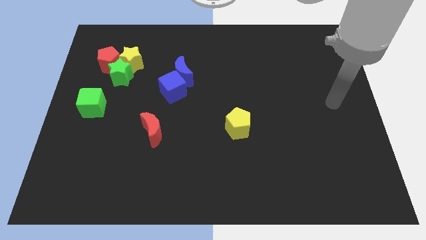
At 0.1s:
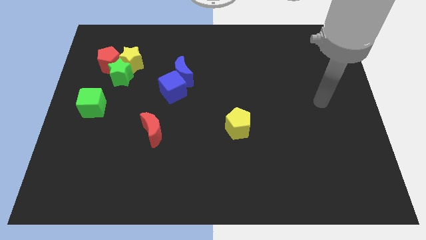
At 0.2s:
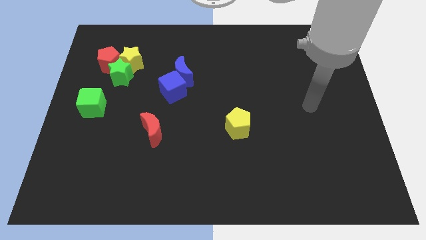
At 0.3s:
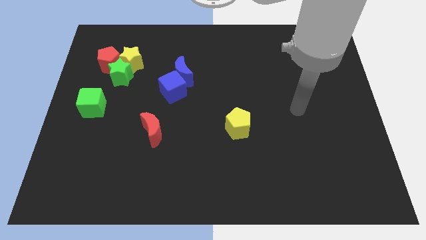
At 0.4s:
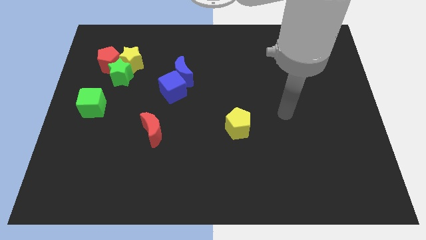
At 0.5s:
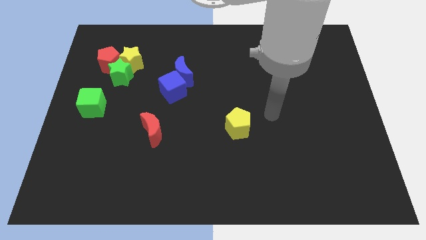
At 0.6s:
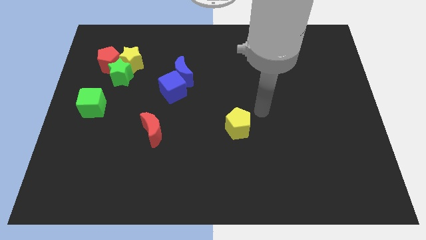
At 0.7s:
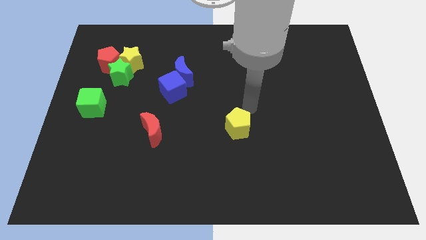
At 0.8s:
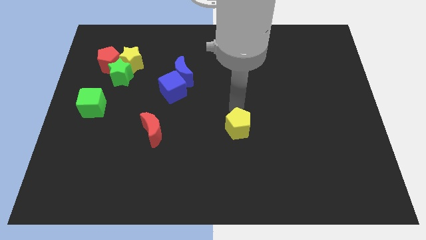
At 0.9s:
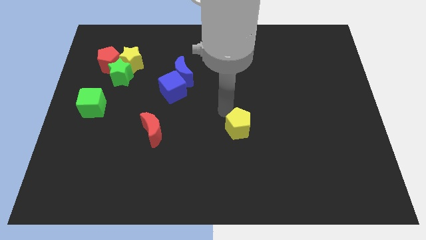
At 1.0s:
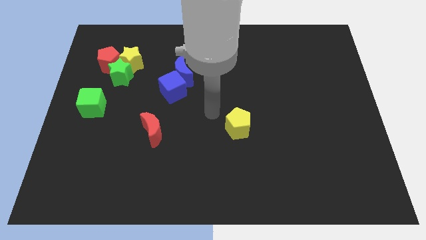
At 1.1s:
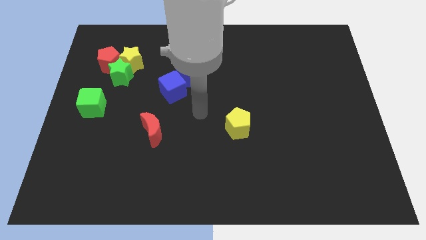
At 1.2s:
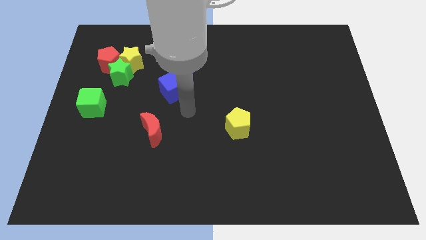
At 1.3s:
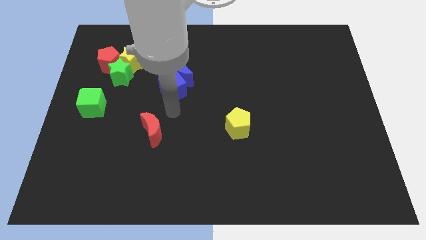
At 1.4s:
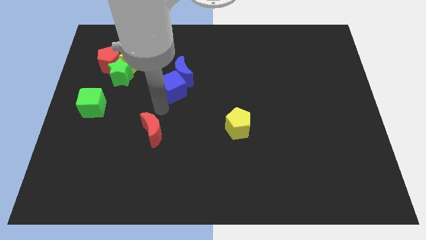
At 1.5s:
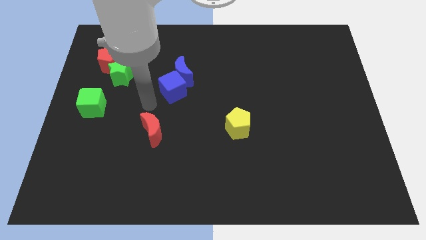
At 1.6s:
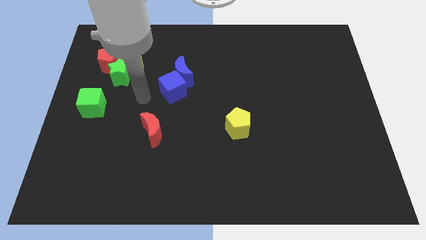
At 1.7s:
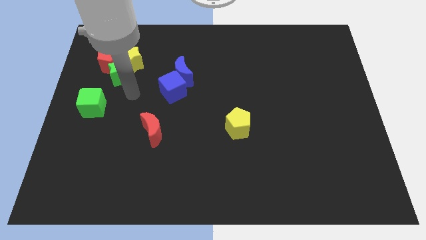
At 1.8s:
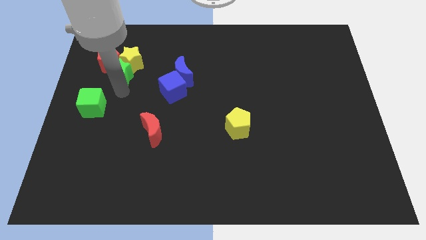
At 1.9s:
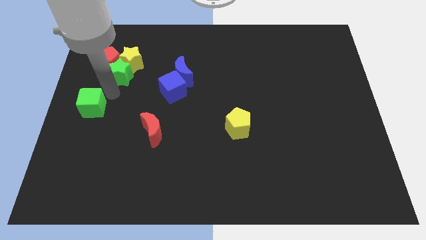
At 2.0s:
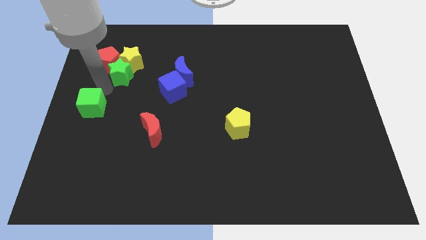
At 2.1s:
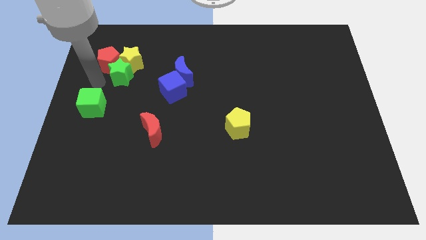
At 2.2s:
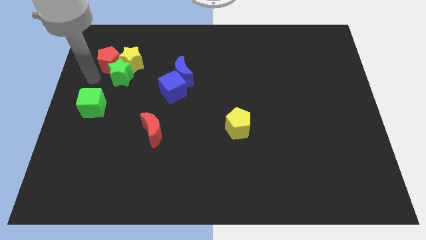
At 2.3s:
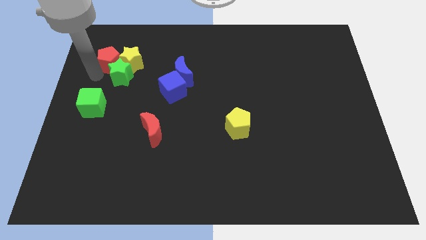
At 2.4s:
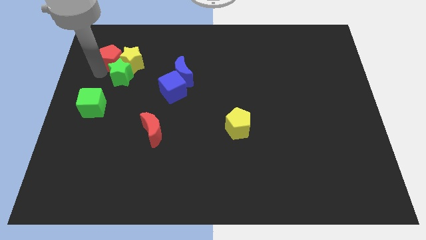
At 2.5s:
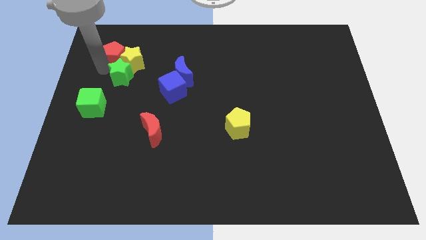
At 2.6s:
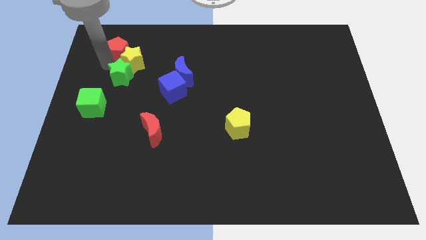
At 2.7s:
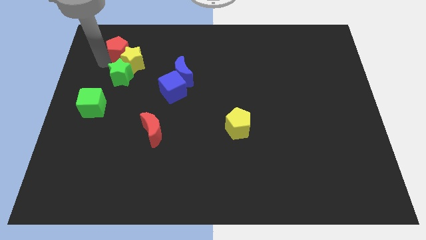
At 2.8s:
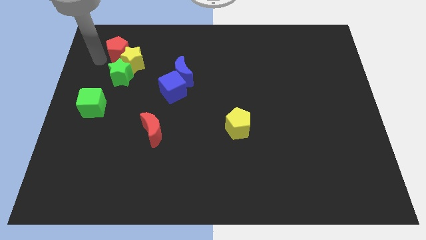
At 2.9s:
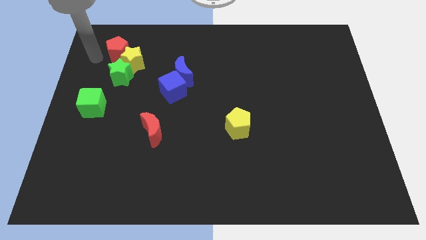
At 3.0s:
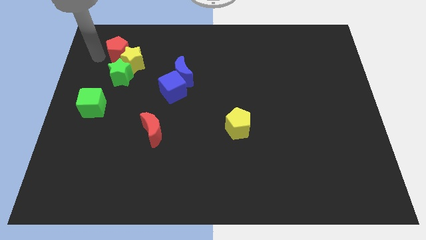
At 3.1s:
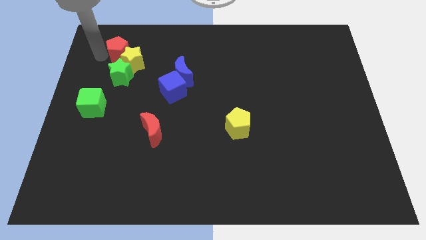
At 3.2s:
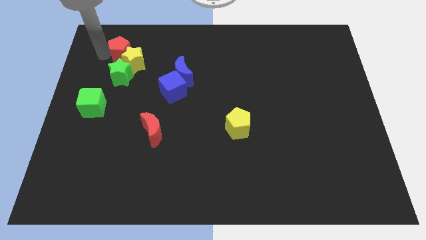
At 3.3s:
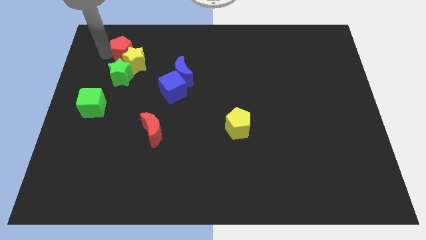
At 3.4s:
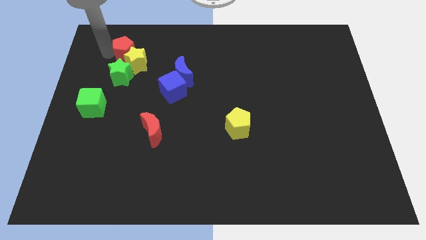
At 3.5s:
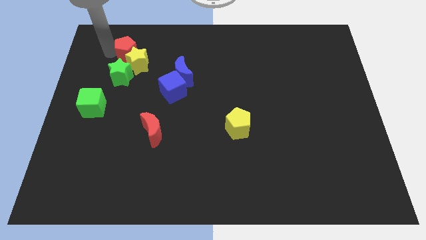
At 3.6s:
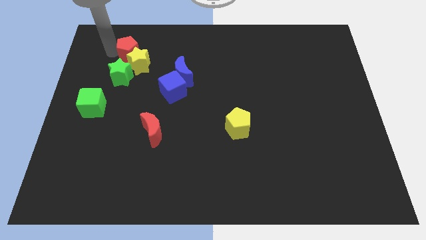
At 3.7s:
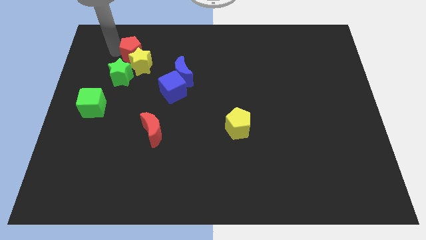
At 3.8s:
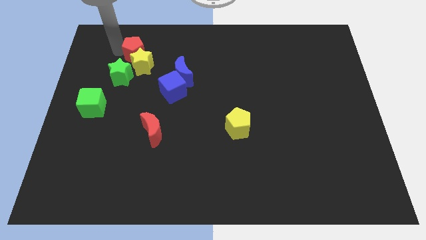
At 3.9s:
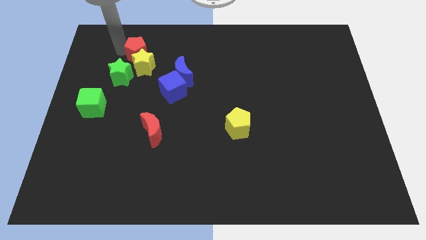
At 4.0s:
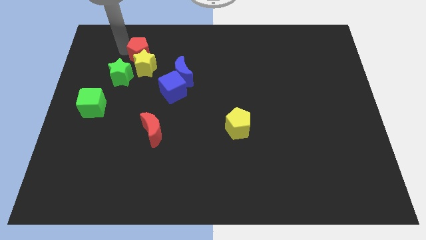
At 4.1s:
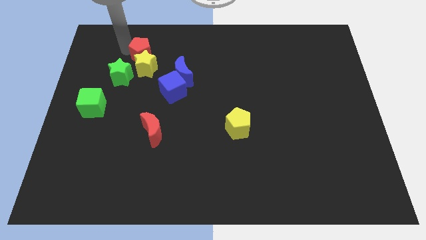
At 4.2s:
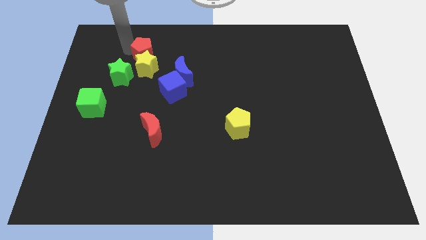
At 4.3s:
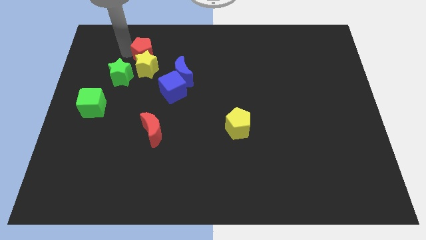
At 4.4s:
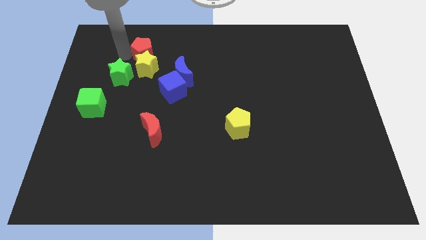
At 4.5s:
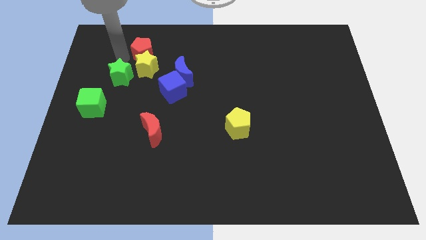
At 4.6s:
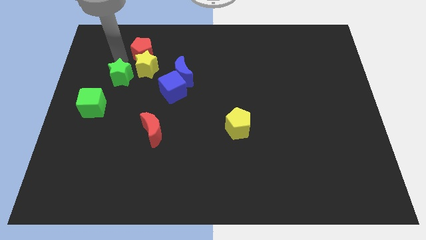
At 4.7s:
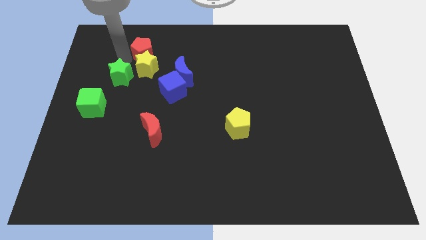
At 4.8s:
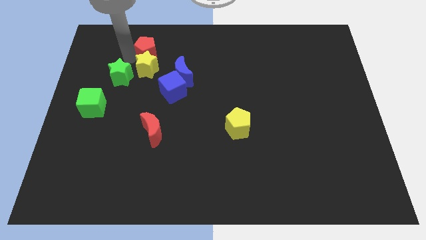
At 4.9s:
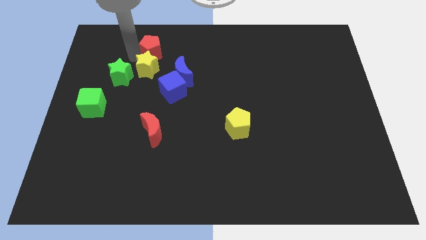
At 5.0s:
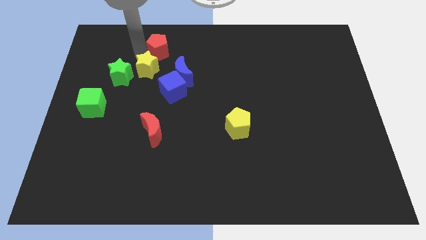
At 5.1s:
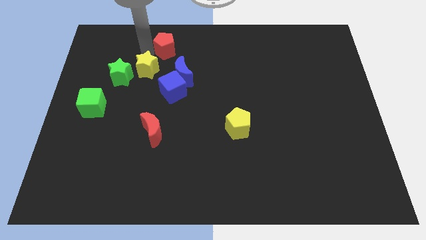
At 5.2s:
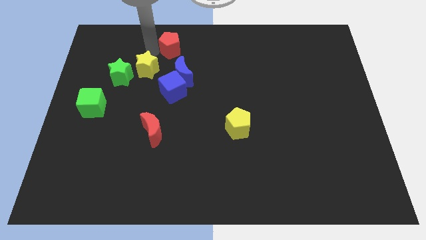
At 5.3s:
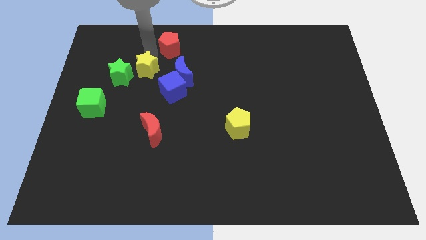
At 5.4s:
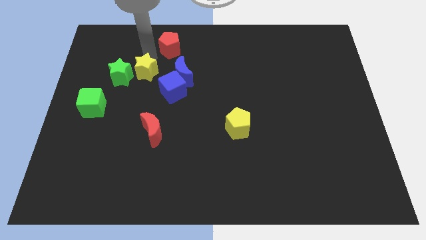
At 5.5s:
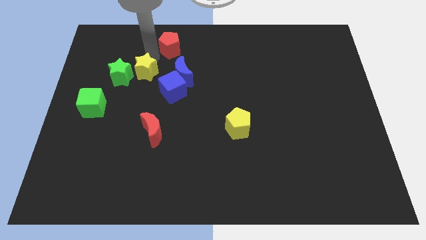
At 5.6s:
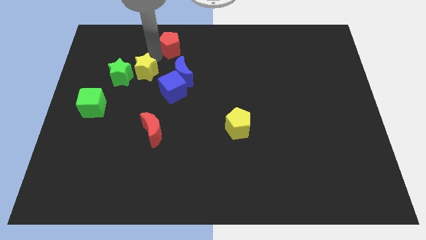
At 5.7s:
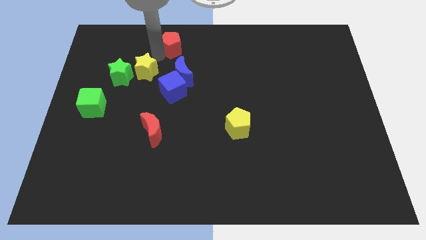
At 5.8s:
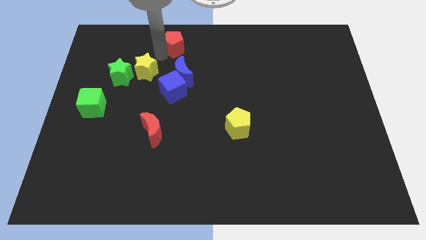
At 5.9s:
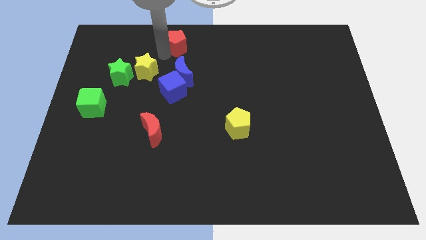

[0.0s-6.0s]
put the red pentagon to the top
